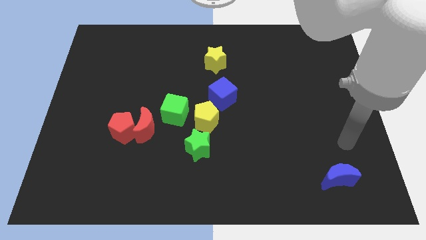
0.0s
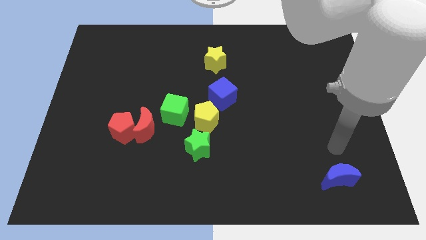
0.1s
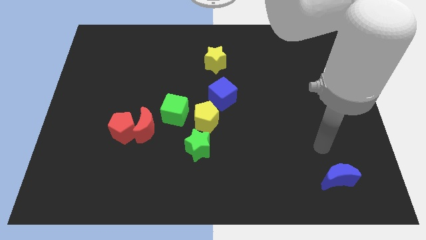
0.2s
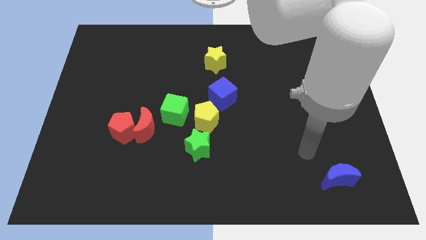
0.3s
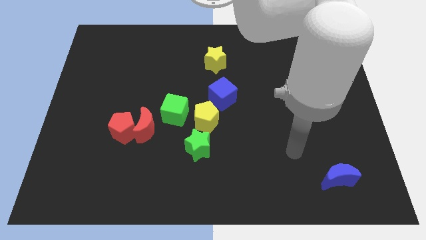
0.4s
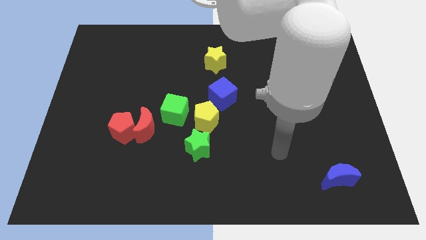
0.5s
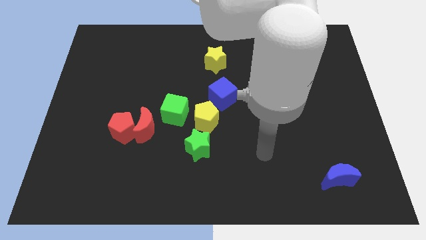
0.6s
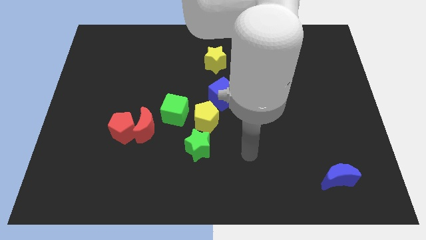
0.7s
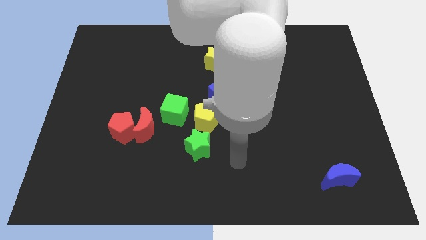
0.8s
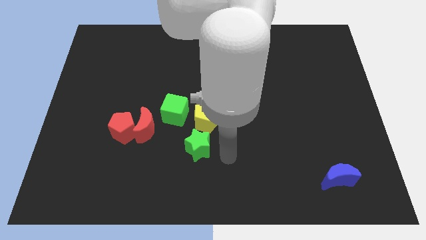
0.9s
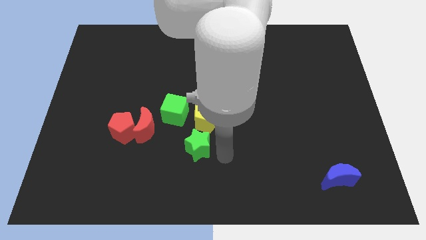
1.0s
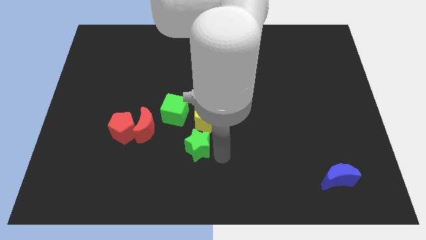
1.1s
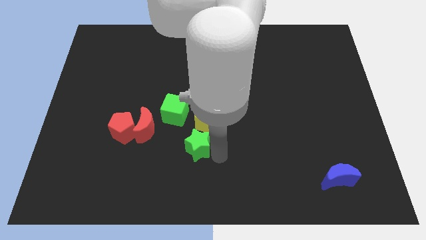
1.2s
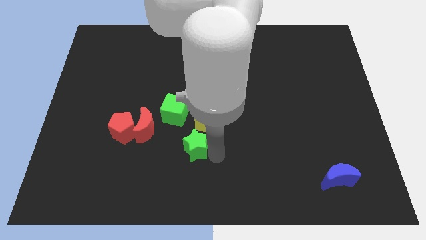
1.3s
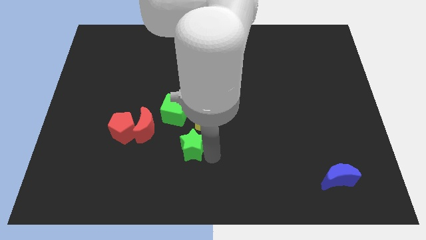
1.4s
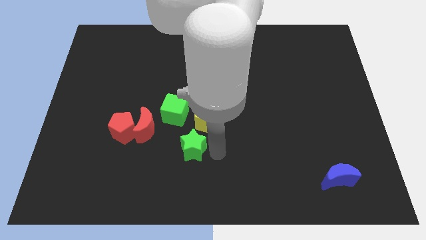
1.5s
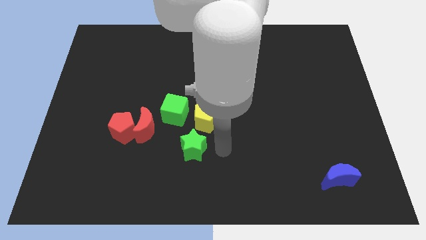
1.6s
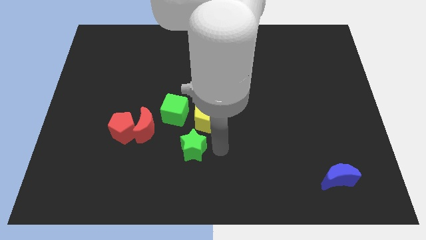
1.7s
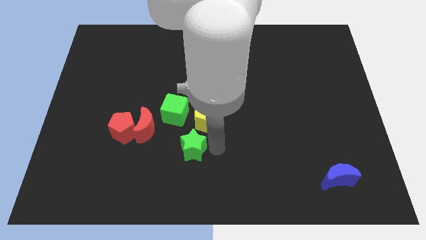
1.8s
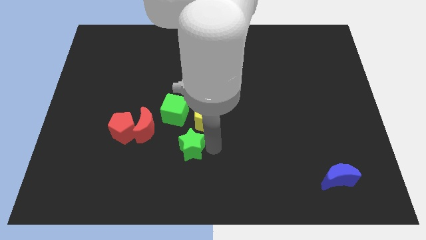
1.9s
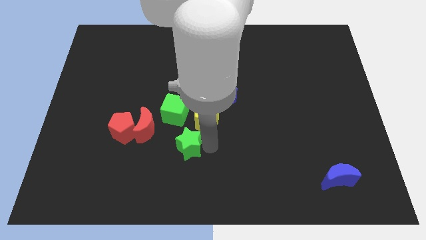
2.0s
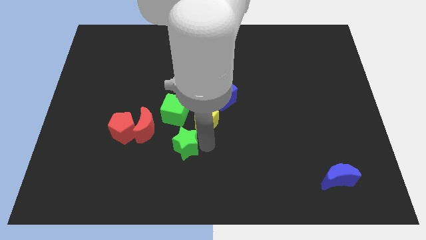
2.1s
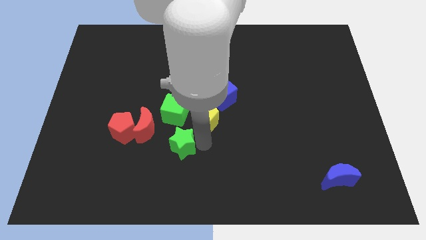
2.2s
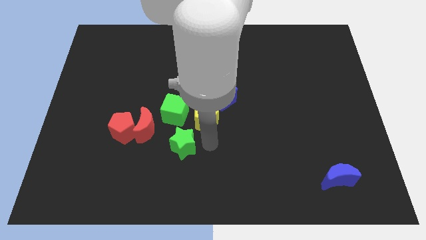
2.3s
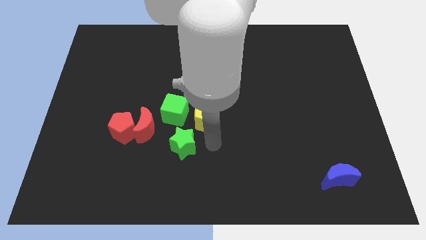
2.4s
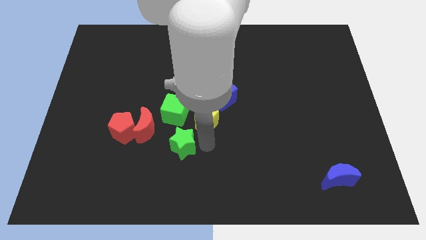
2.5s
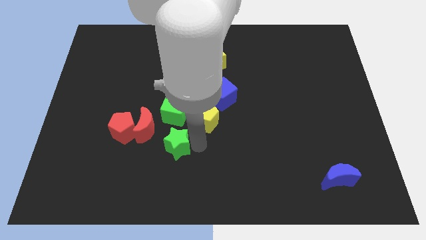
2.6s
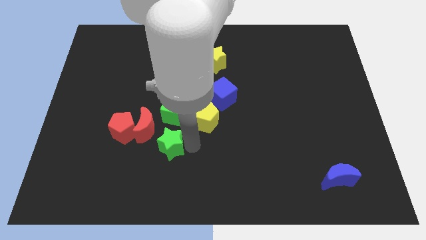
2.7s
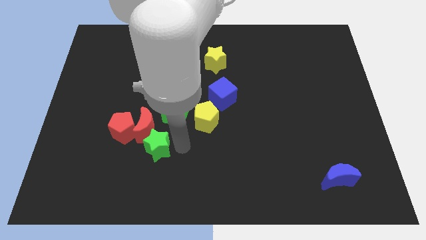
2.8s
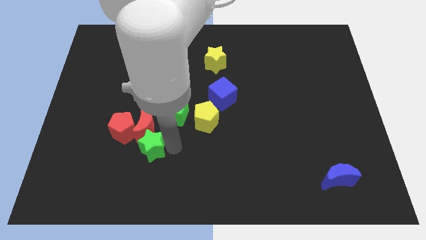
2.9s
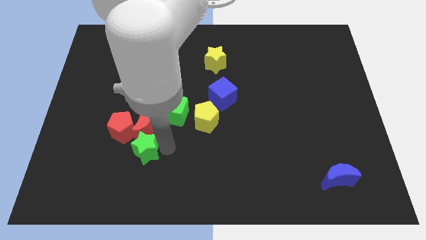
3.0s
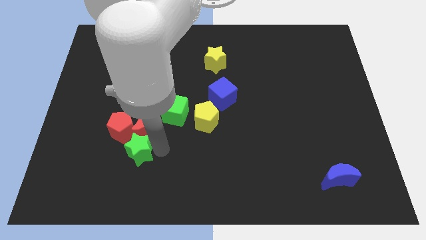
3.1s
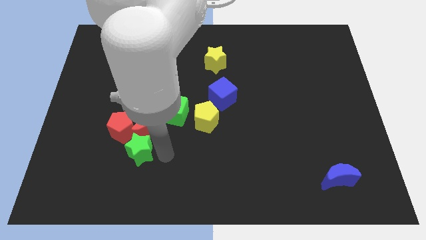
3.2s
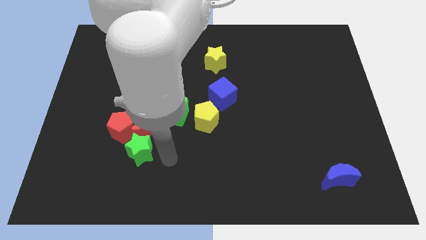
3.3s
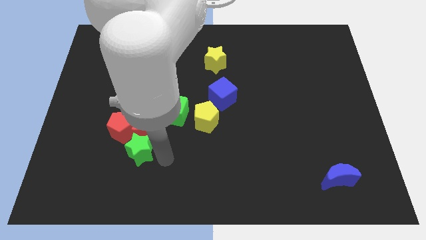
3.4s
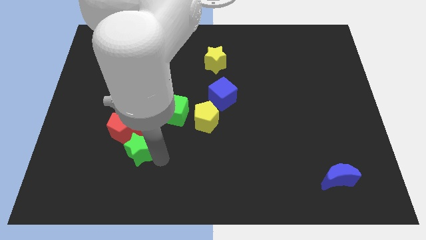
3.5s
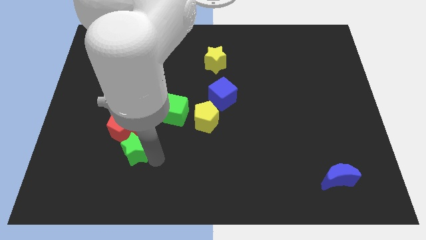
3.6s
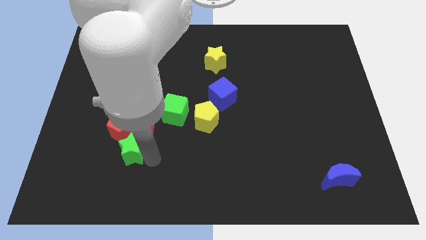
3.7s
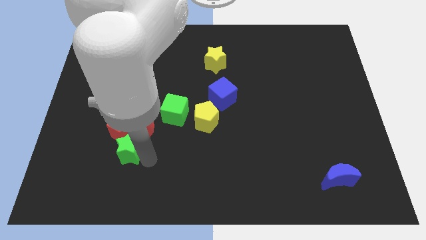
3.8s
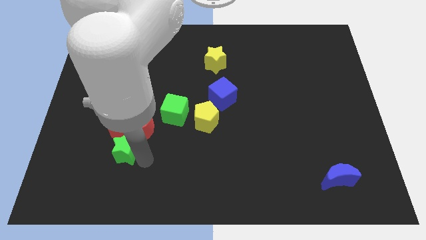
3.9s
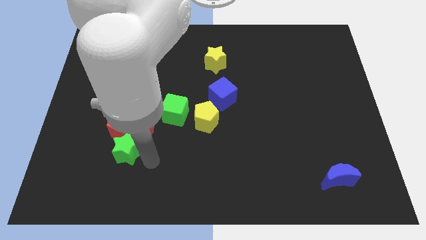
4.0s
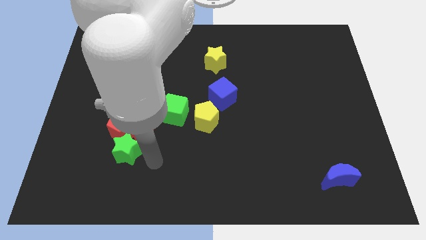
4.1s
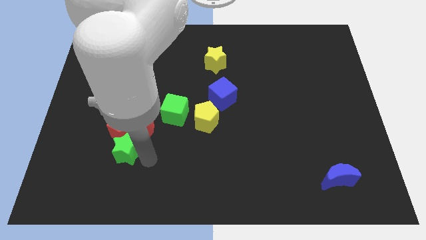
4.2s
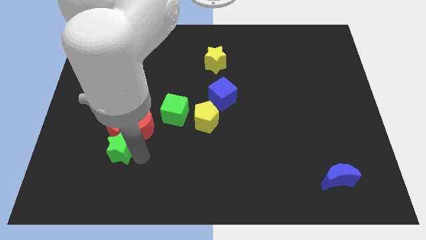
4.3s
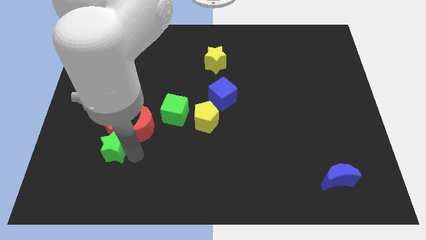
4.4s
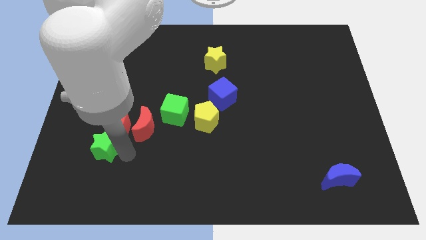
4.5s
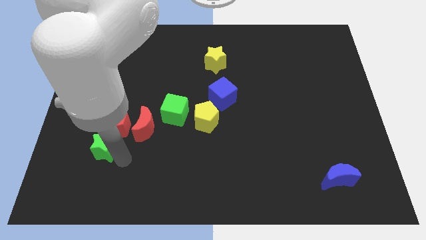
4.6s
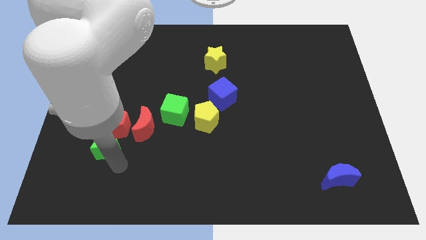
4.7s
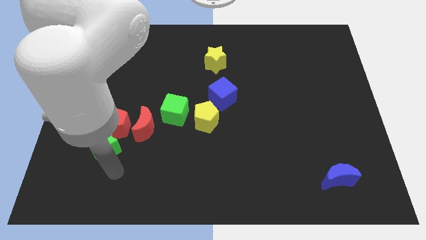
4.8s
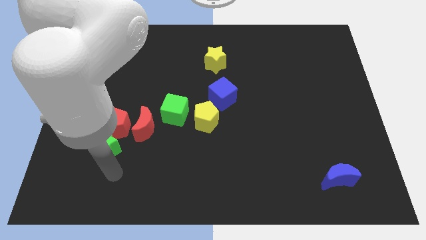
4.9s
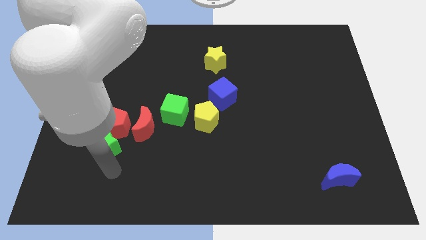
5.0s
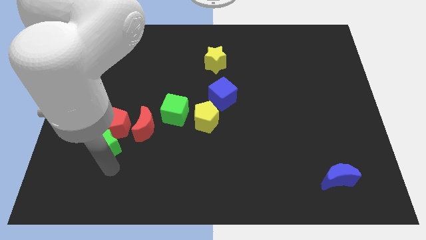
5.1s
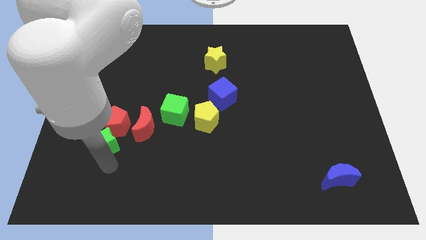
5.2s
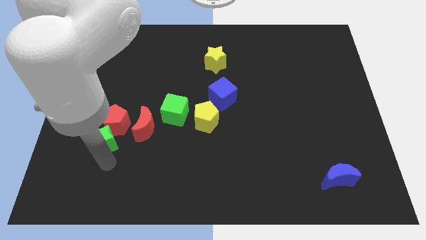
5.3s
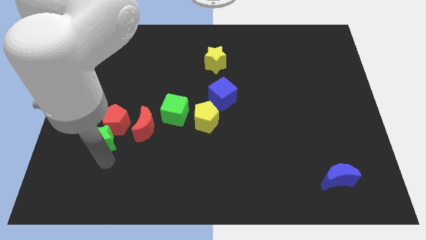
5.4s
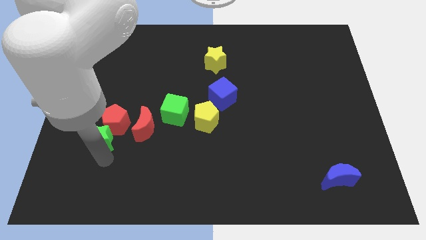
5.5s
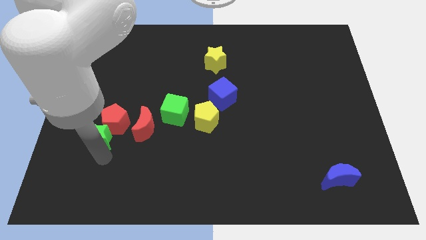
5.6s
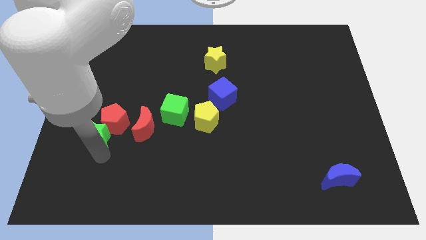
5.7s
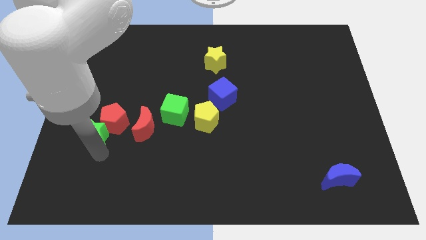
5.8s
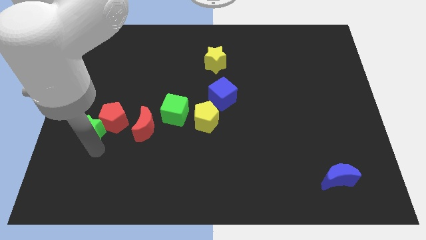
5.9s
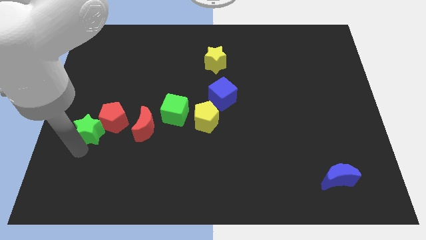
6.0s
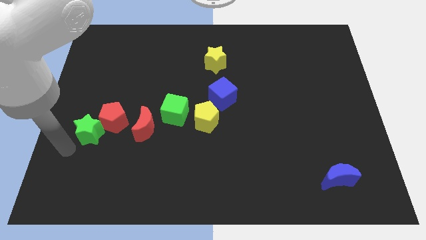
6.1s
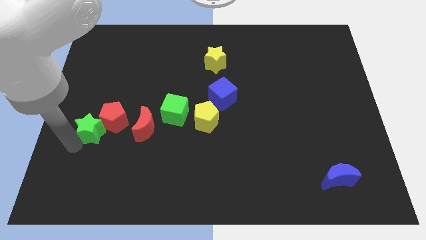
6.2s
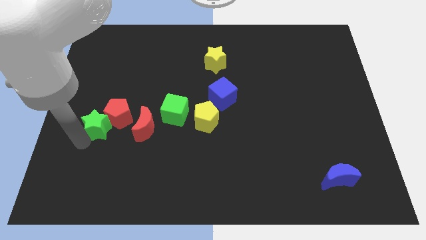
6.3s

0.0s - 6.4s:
slightly slide the green star up and to the left diagonally

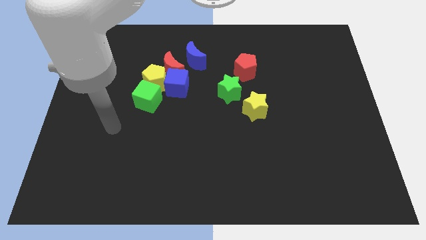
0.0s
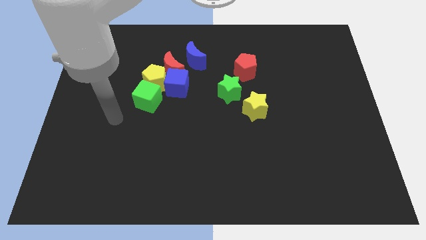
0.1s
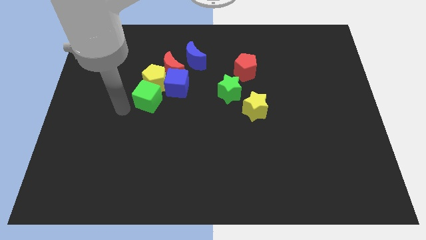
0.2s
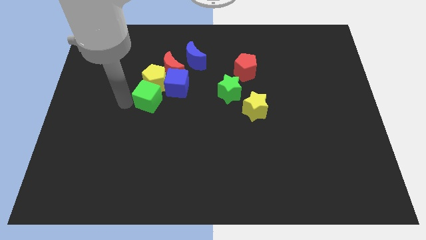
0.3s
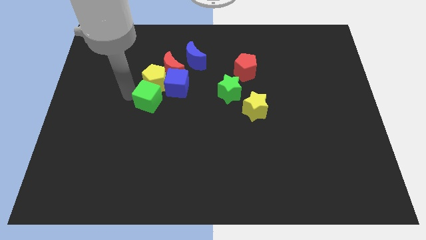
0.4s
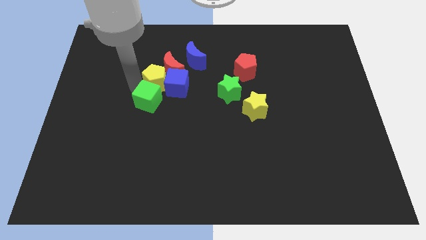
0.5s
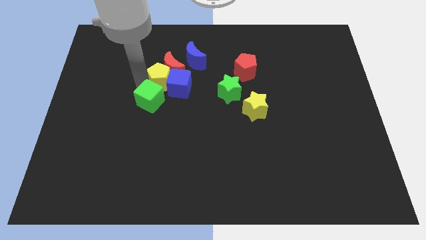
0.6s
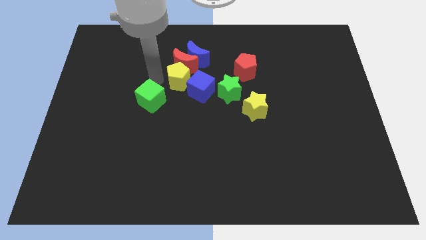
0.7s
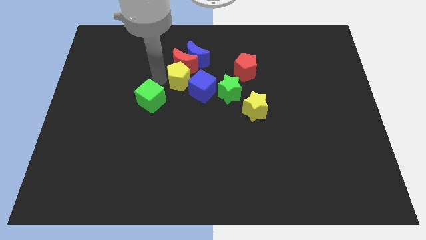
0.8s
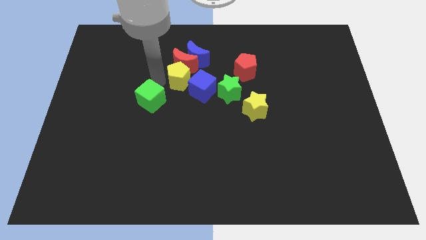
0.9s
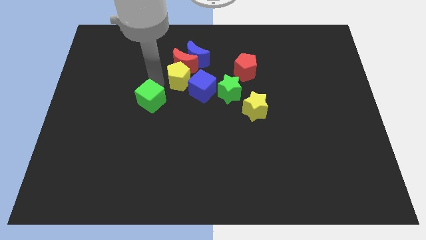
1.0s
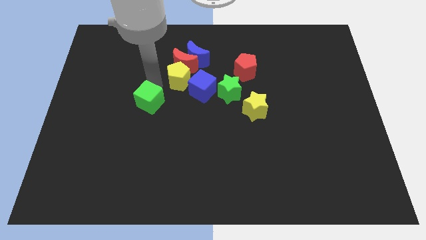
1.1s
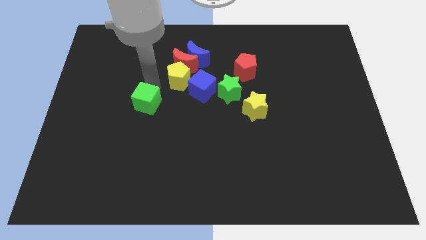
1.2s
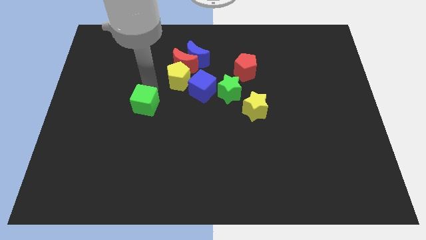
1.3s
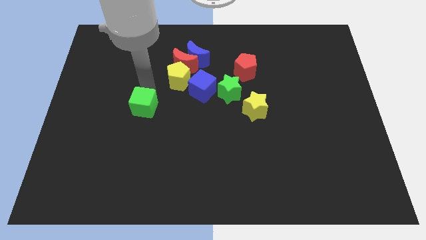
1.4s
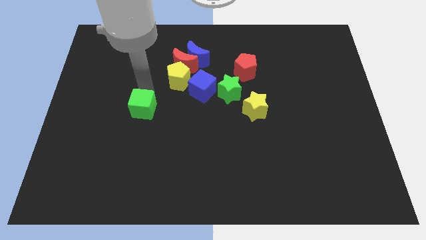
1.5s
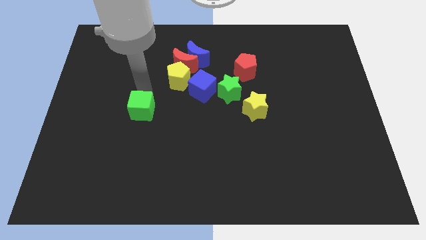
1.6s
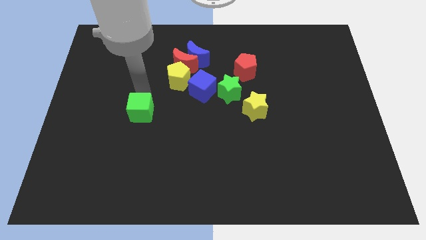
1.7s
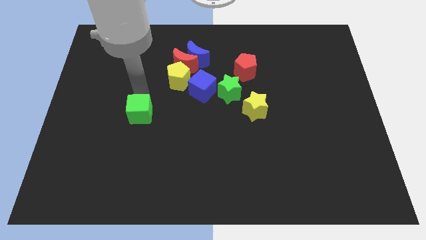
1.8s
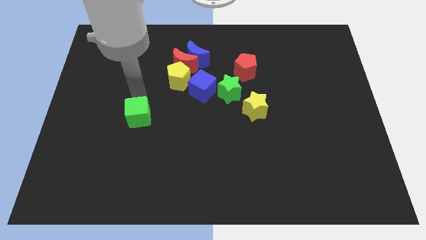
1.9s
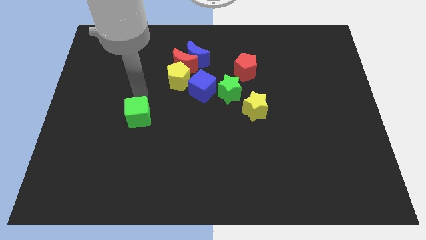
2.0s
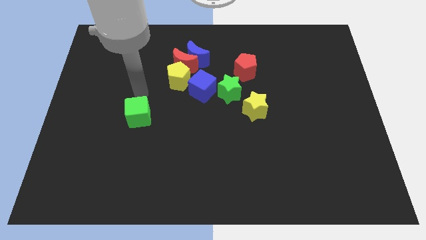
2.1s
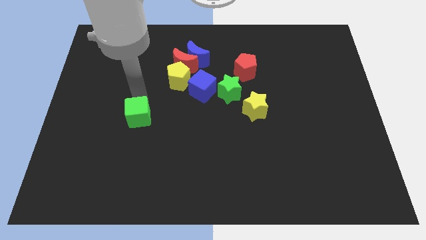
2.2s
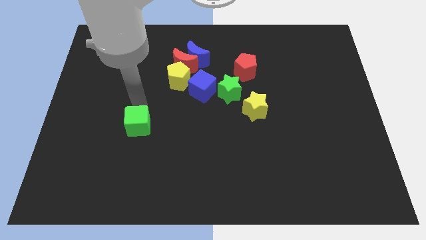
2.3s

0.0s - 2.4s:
move the green cube downwards somewhat
